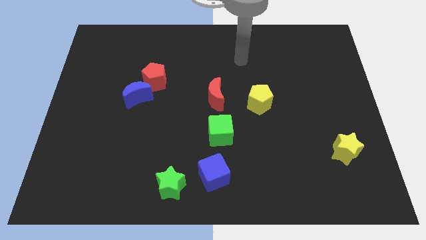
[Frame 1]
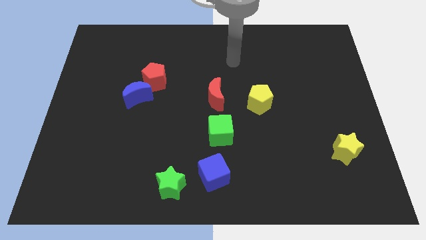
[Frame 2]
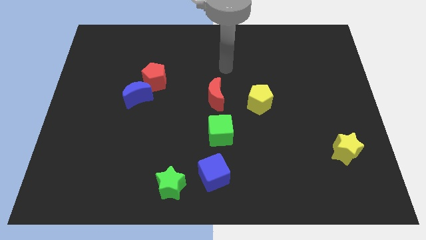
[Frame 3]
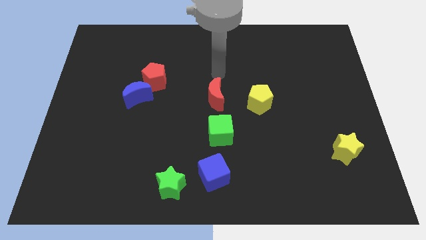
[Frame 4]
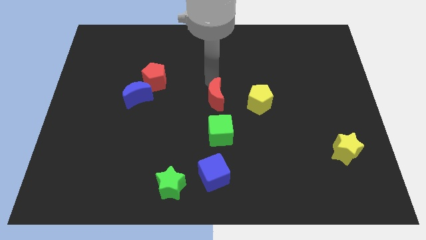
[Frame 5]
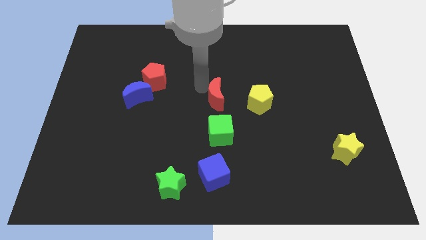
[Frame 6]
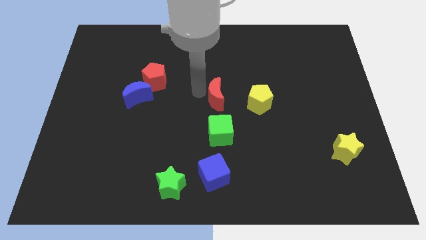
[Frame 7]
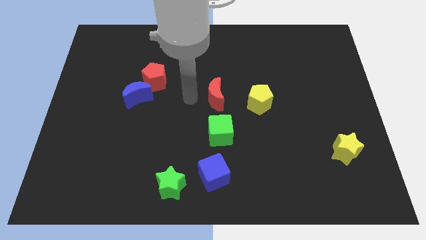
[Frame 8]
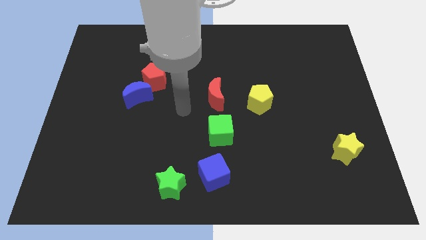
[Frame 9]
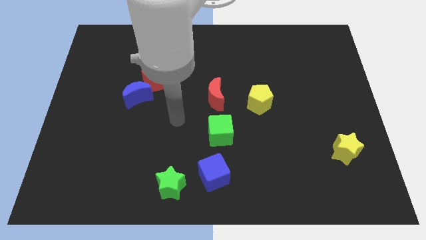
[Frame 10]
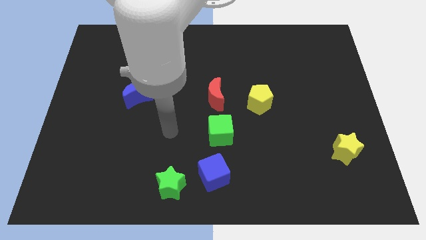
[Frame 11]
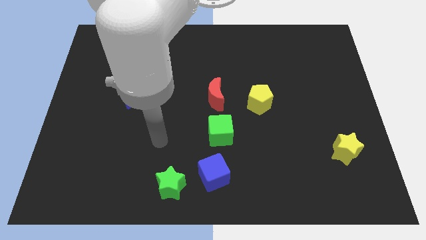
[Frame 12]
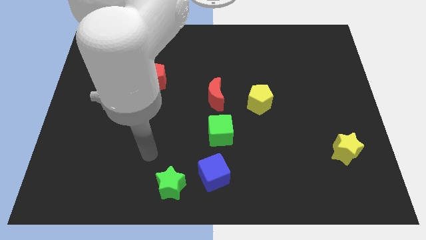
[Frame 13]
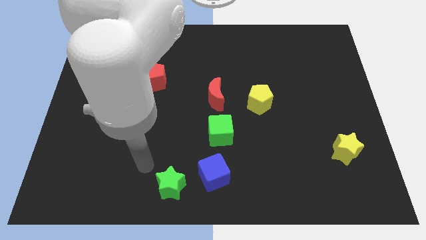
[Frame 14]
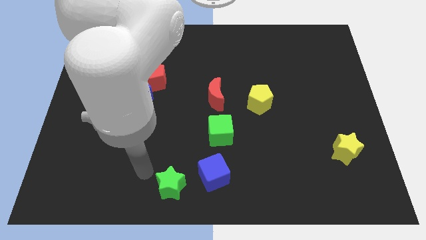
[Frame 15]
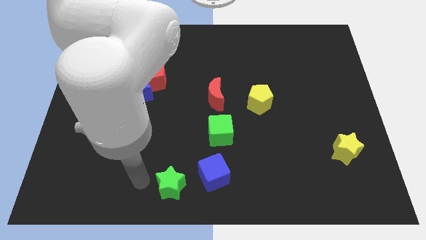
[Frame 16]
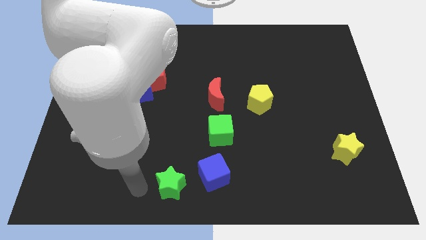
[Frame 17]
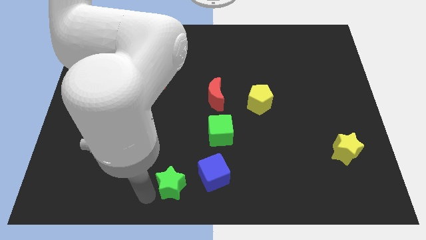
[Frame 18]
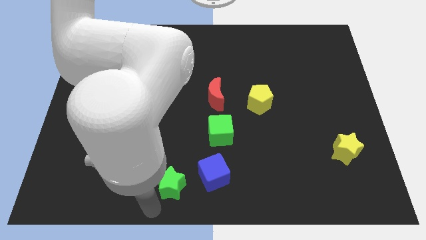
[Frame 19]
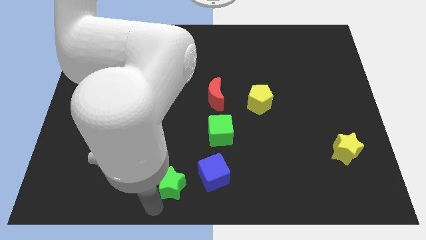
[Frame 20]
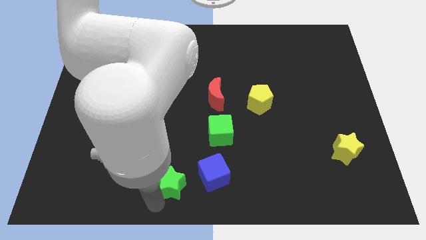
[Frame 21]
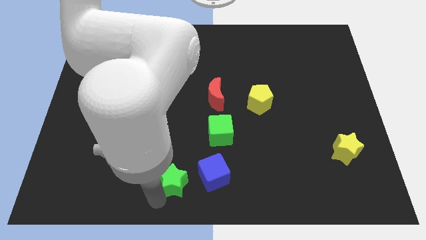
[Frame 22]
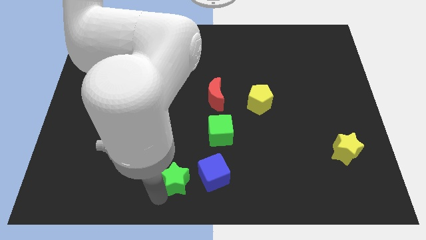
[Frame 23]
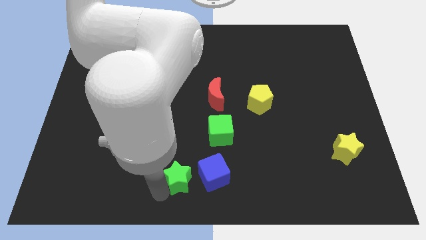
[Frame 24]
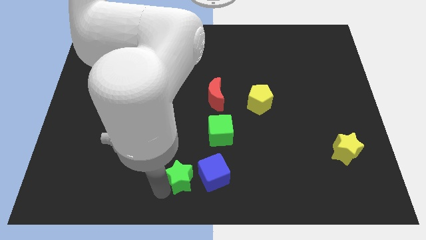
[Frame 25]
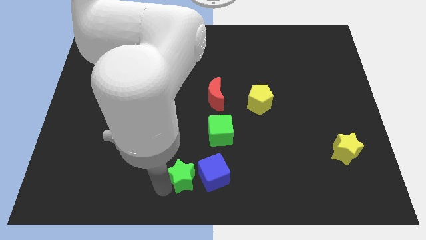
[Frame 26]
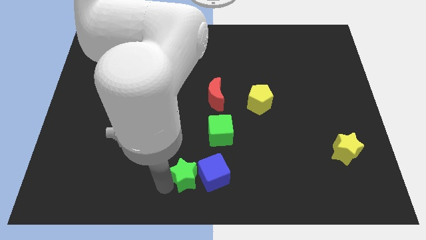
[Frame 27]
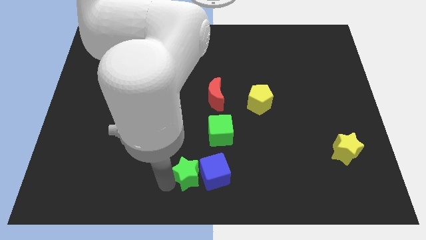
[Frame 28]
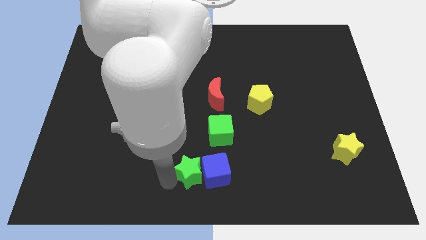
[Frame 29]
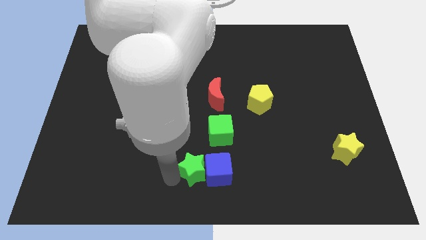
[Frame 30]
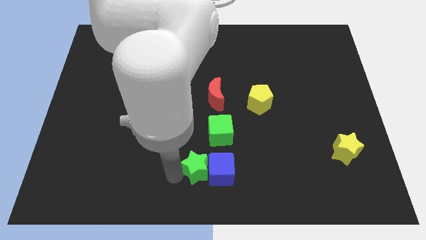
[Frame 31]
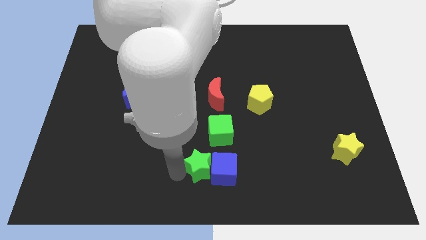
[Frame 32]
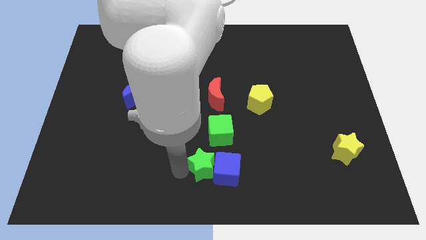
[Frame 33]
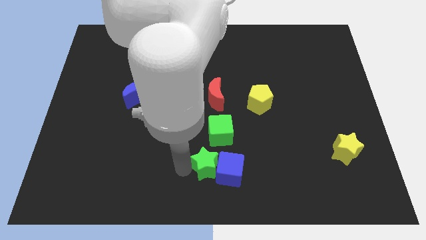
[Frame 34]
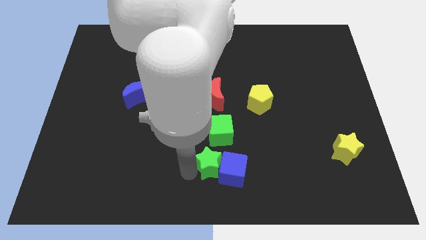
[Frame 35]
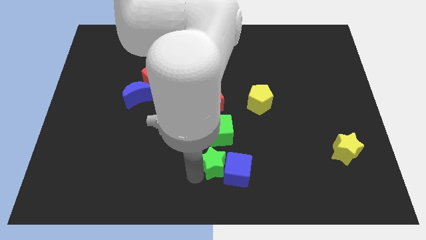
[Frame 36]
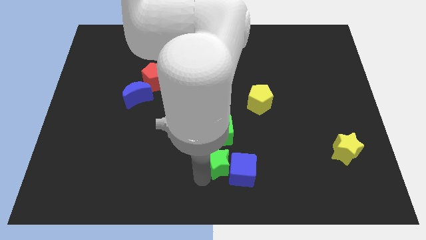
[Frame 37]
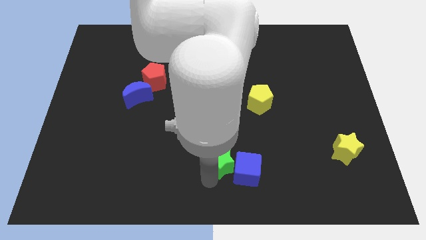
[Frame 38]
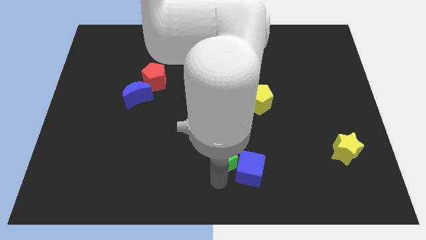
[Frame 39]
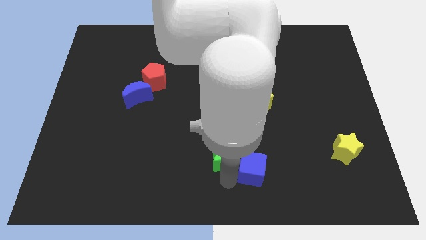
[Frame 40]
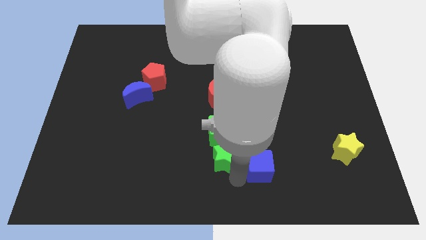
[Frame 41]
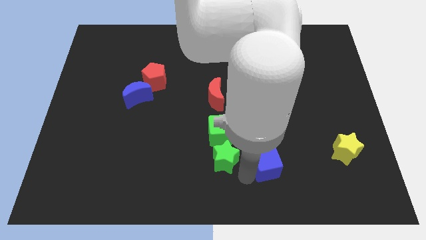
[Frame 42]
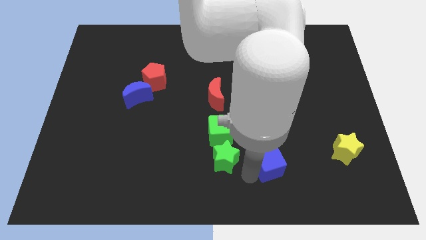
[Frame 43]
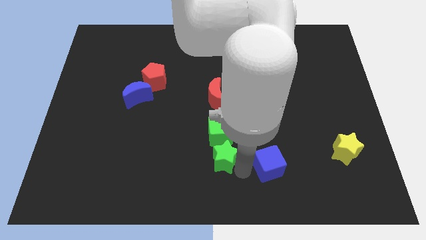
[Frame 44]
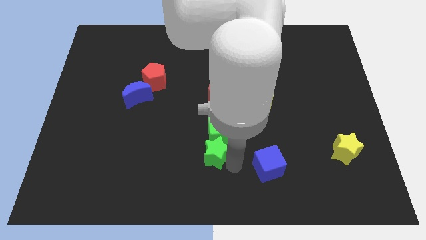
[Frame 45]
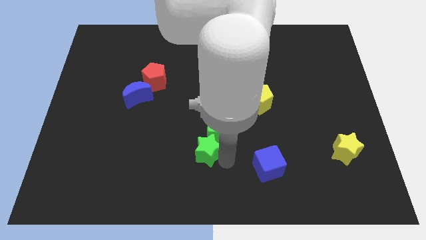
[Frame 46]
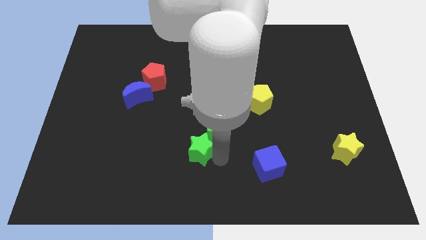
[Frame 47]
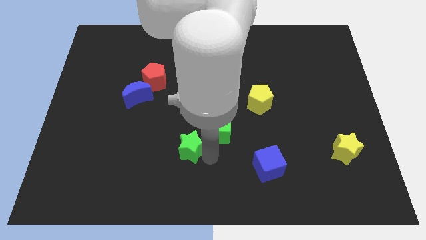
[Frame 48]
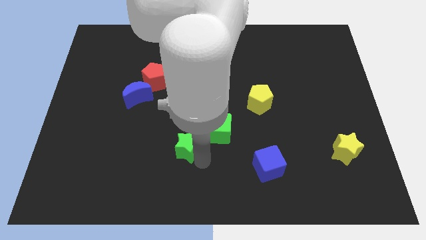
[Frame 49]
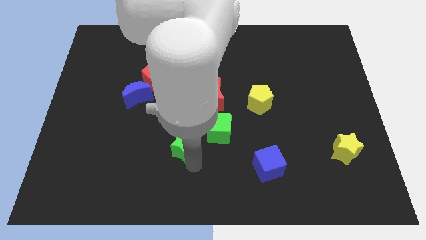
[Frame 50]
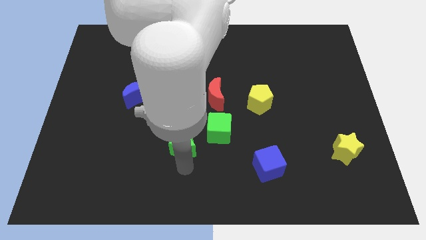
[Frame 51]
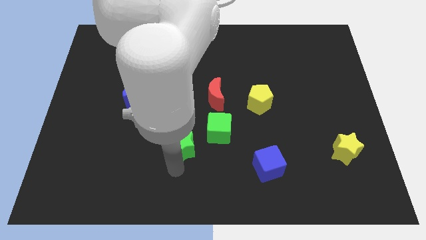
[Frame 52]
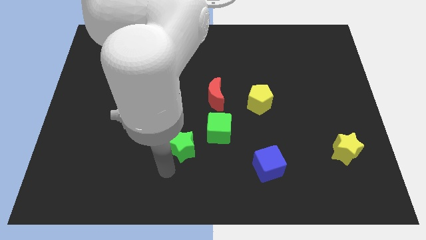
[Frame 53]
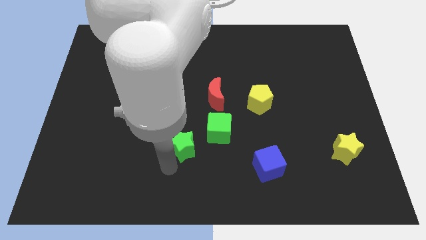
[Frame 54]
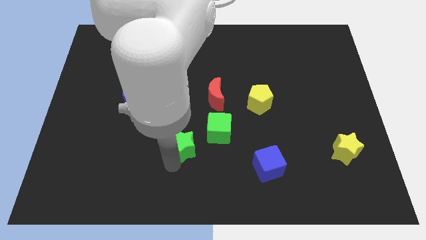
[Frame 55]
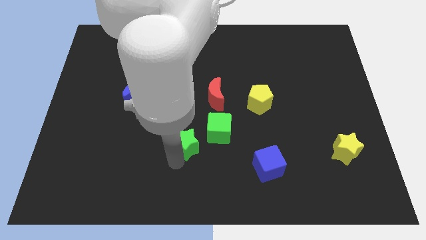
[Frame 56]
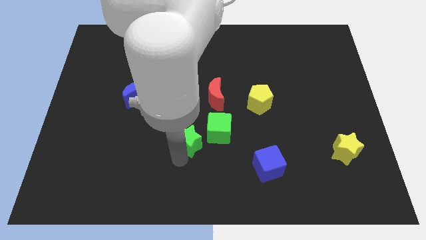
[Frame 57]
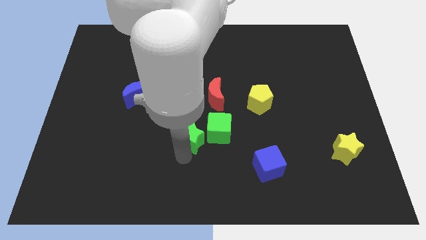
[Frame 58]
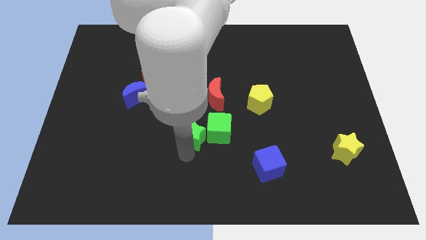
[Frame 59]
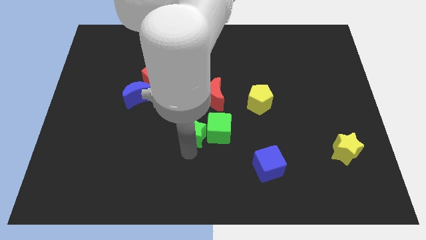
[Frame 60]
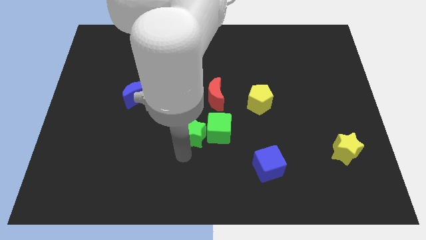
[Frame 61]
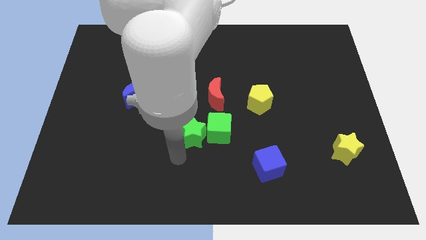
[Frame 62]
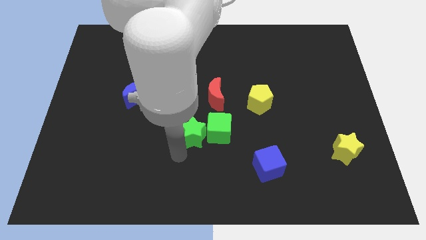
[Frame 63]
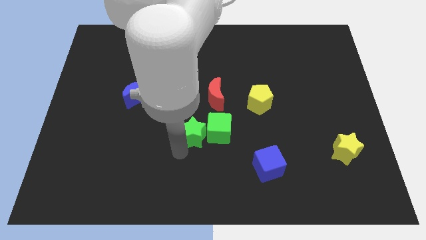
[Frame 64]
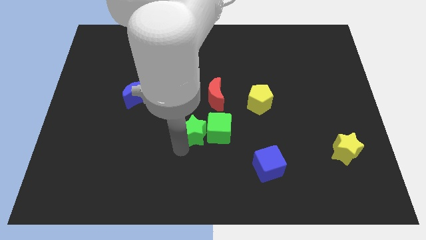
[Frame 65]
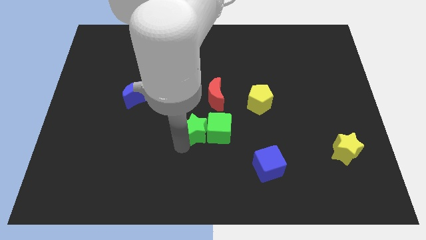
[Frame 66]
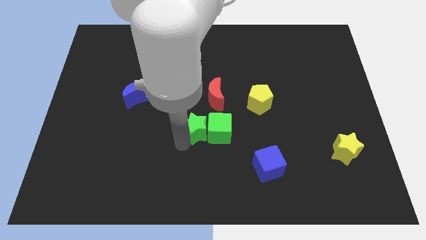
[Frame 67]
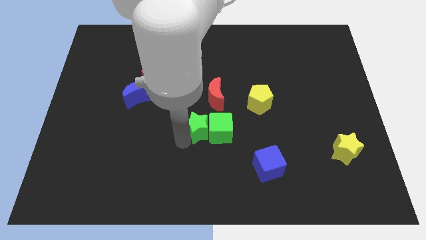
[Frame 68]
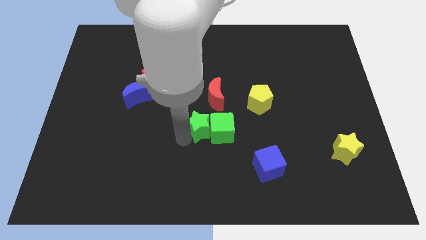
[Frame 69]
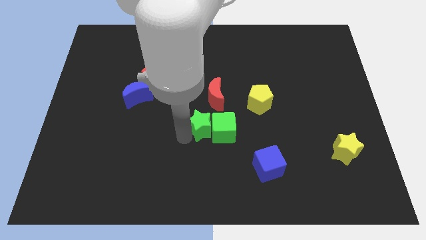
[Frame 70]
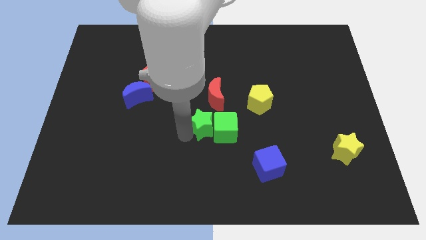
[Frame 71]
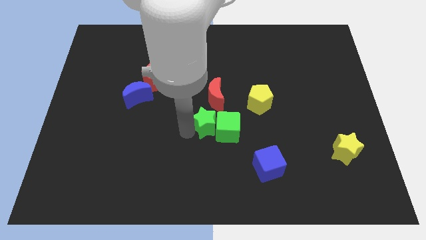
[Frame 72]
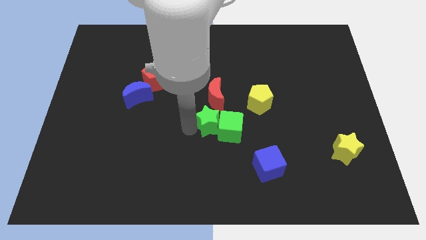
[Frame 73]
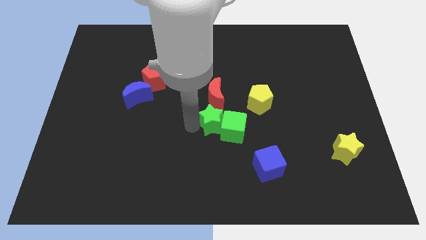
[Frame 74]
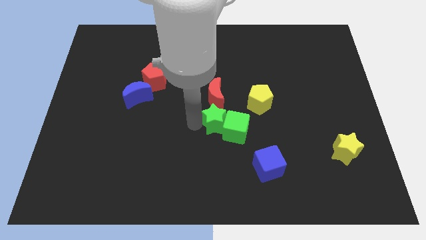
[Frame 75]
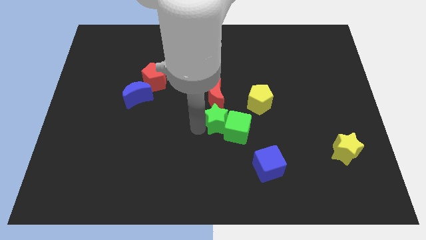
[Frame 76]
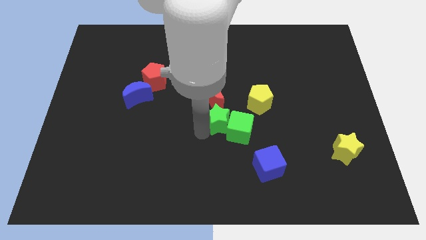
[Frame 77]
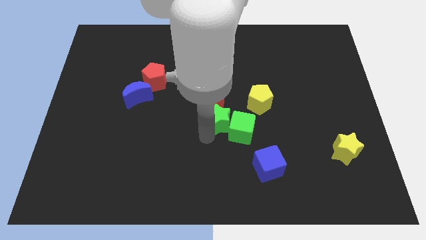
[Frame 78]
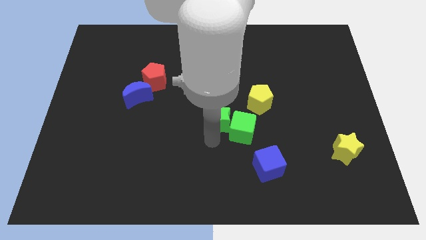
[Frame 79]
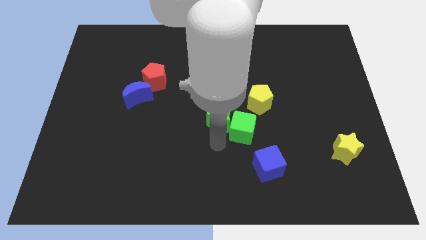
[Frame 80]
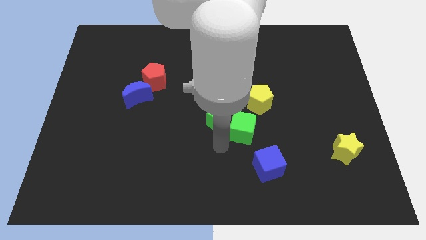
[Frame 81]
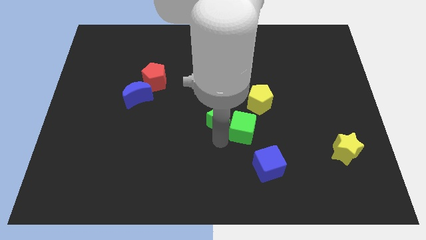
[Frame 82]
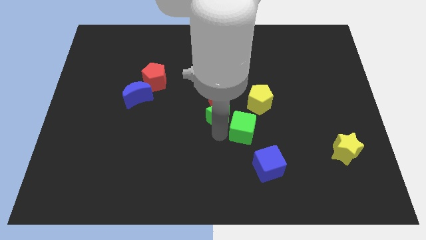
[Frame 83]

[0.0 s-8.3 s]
slide the green star to the red moon
